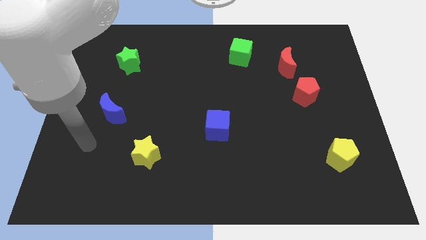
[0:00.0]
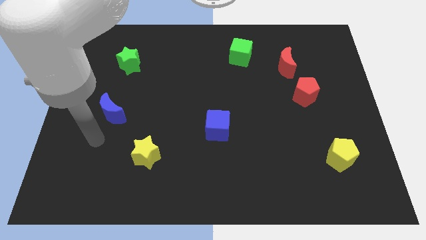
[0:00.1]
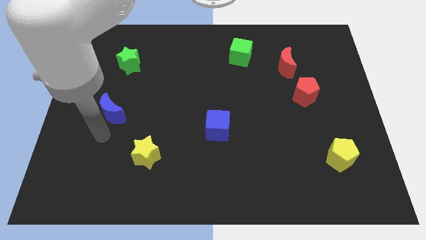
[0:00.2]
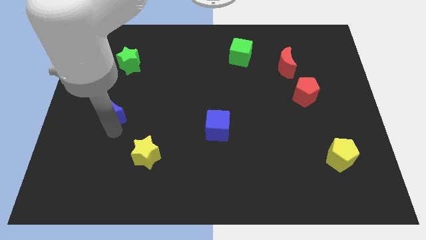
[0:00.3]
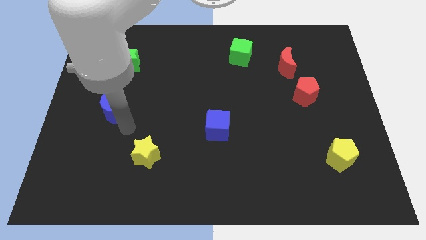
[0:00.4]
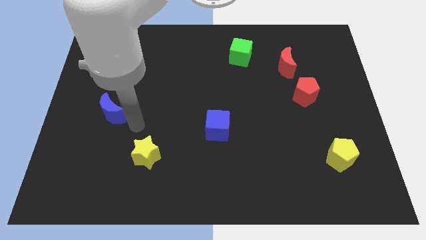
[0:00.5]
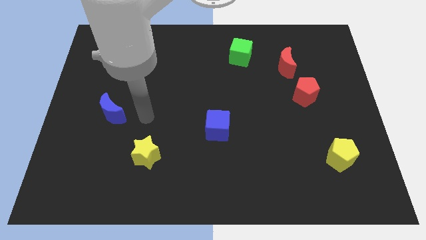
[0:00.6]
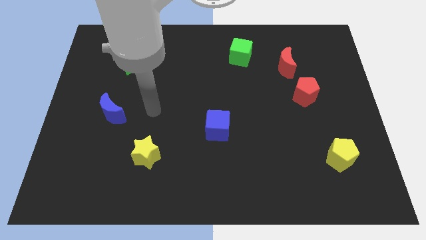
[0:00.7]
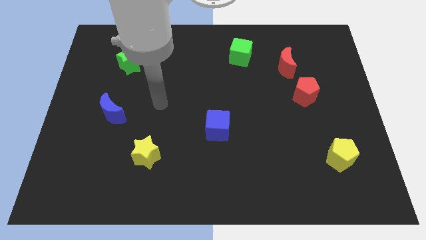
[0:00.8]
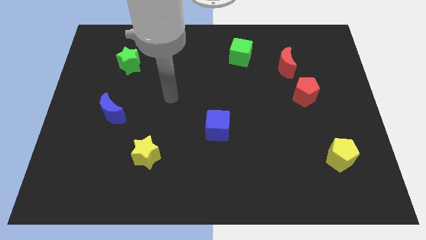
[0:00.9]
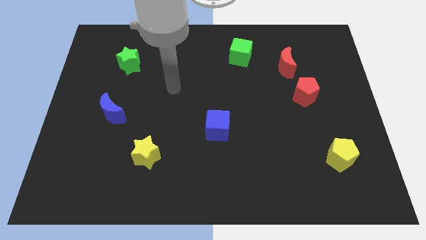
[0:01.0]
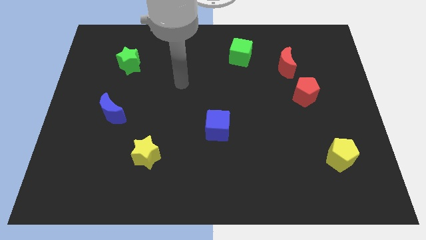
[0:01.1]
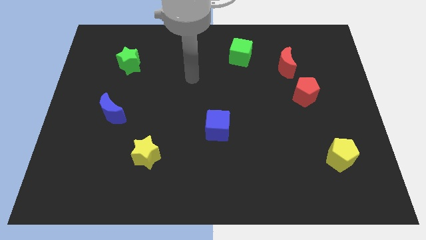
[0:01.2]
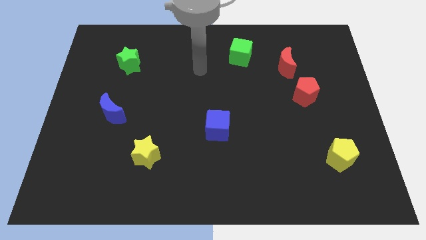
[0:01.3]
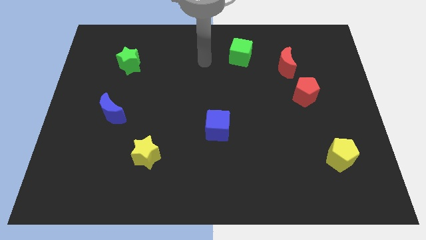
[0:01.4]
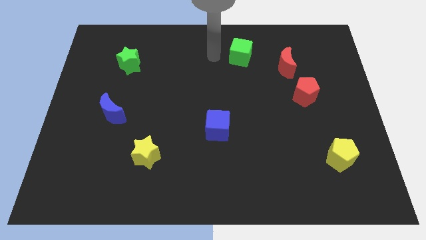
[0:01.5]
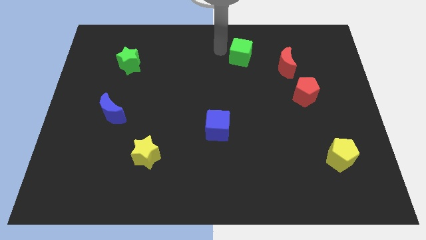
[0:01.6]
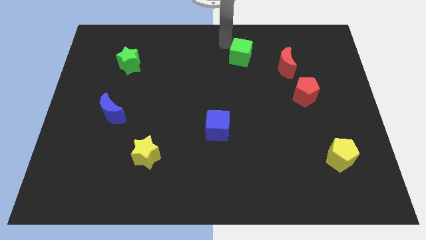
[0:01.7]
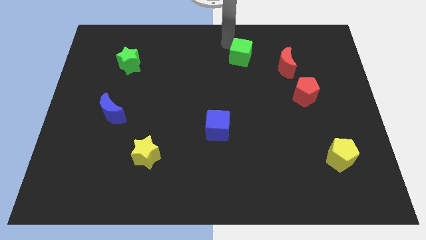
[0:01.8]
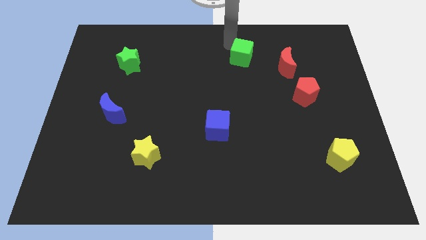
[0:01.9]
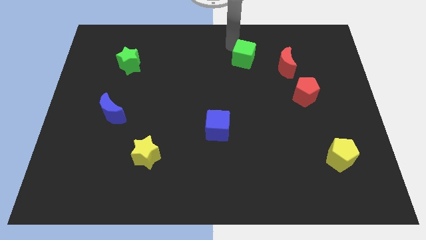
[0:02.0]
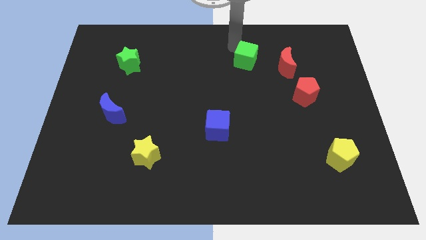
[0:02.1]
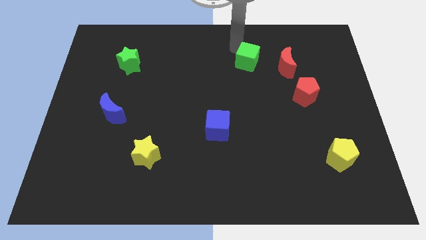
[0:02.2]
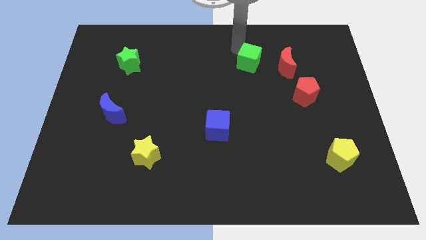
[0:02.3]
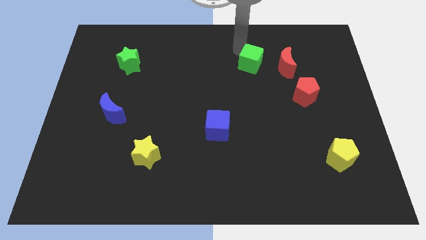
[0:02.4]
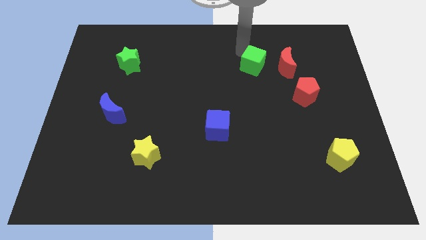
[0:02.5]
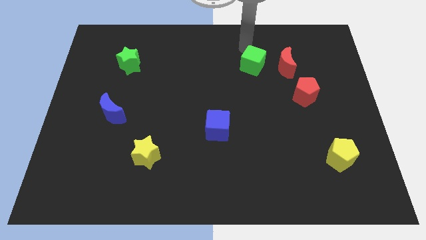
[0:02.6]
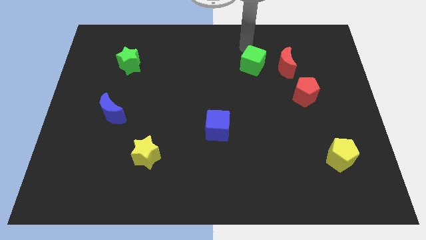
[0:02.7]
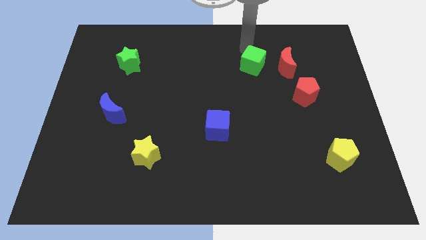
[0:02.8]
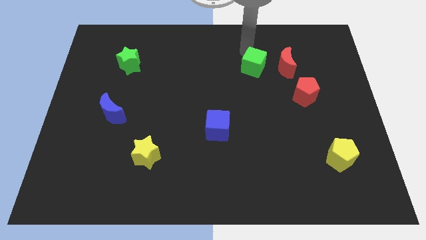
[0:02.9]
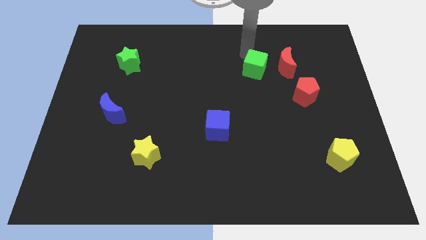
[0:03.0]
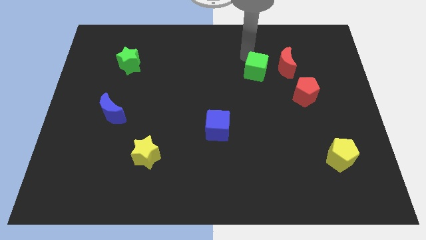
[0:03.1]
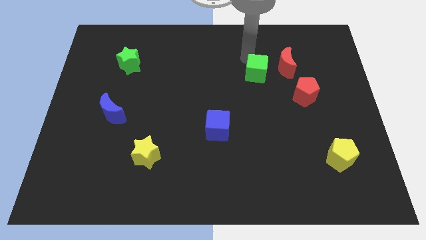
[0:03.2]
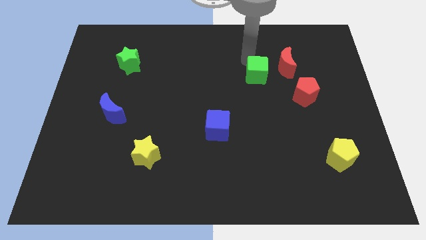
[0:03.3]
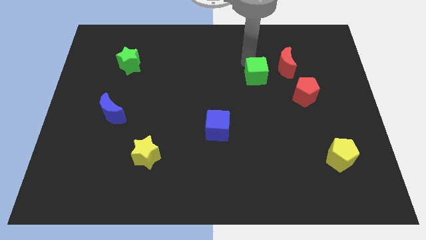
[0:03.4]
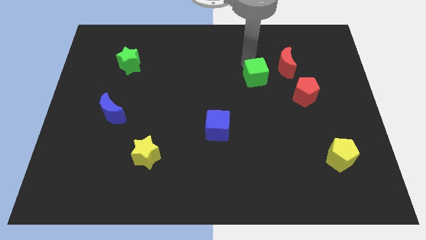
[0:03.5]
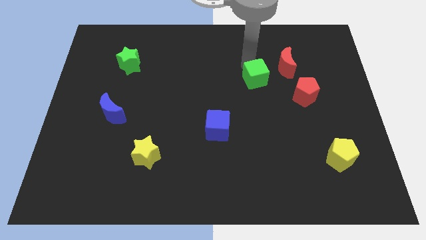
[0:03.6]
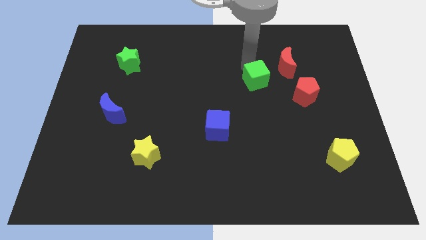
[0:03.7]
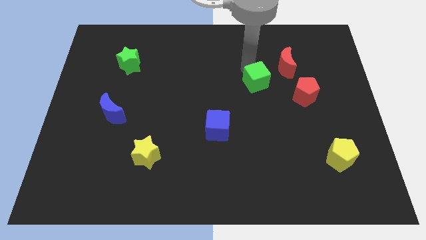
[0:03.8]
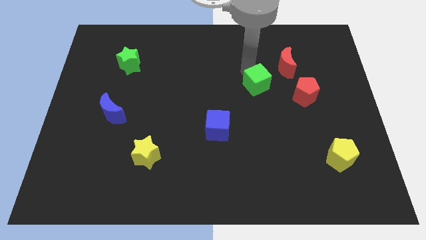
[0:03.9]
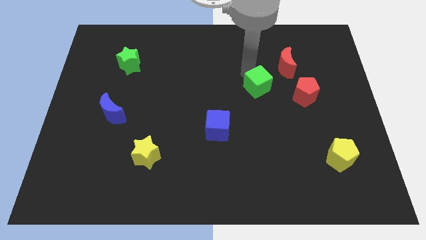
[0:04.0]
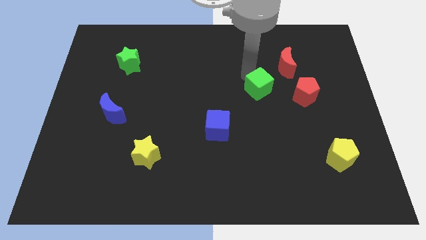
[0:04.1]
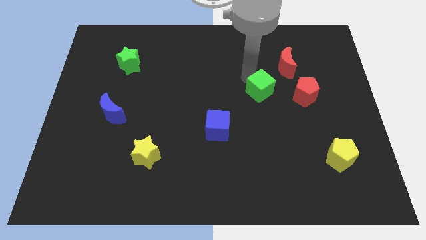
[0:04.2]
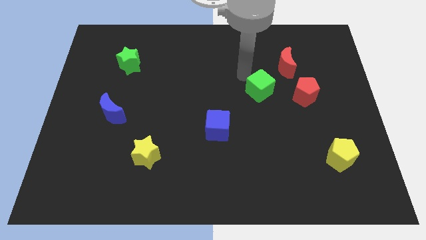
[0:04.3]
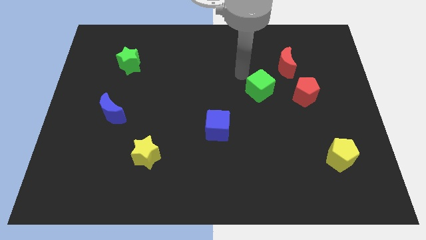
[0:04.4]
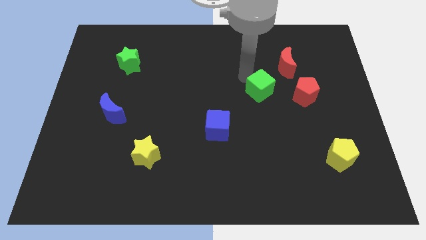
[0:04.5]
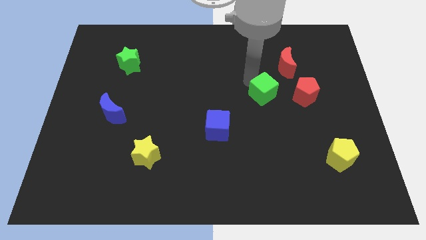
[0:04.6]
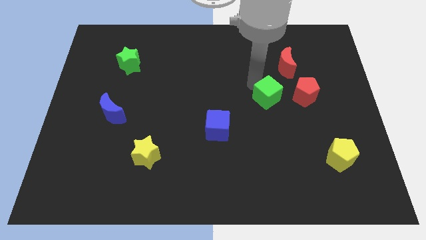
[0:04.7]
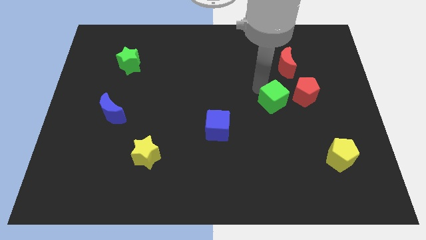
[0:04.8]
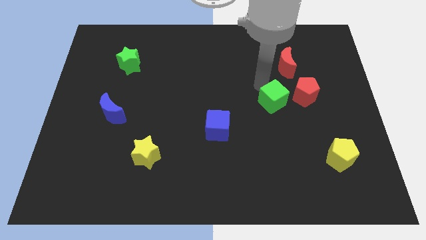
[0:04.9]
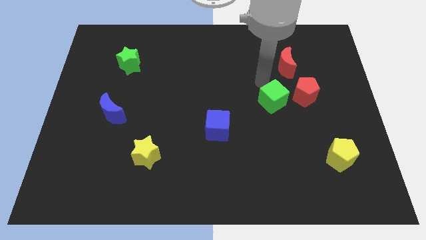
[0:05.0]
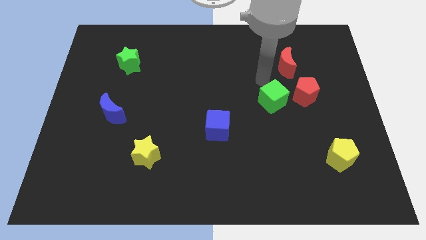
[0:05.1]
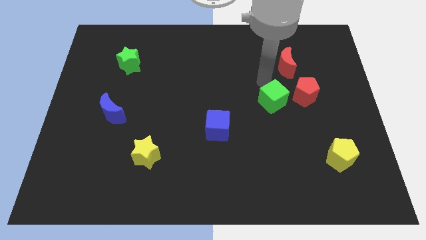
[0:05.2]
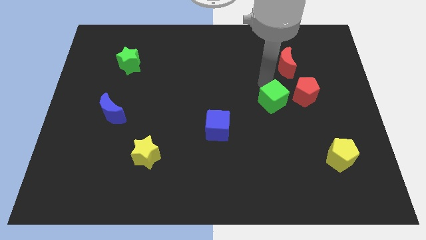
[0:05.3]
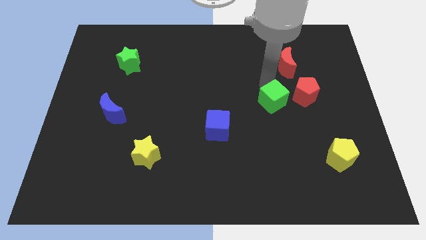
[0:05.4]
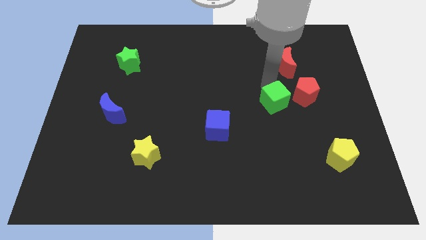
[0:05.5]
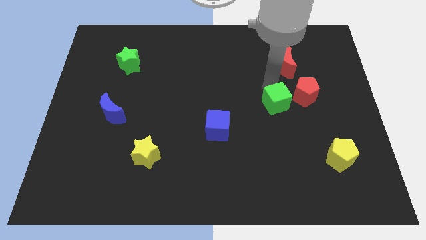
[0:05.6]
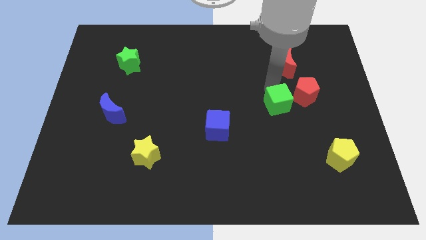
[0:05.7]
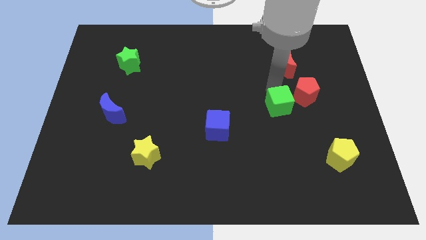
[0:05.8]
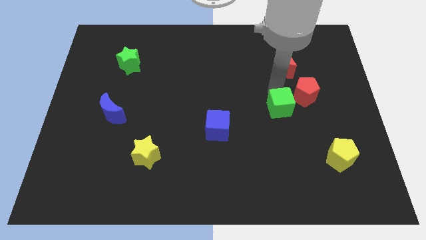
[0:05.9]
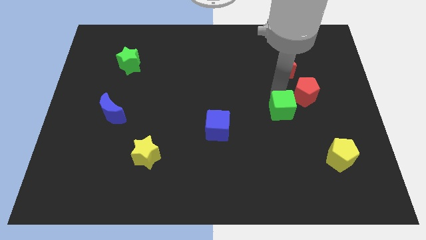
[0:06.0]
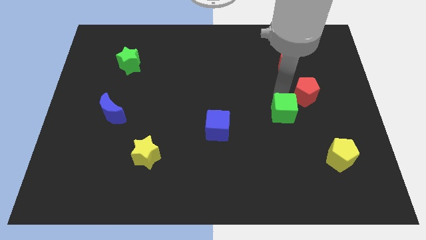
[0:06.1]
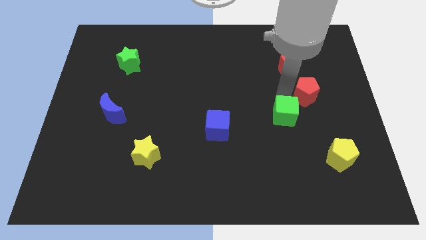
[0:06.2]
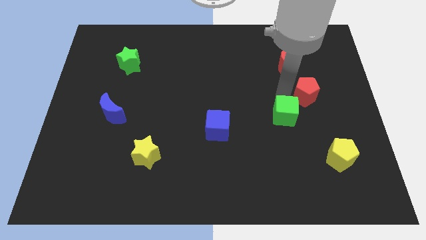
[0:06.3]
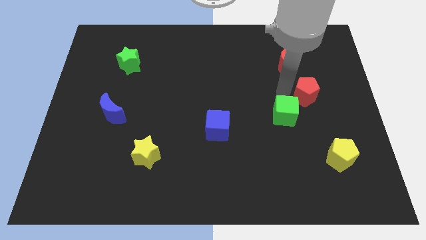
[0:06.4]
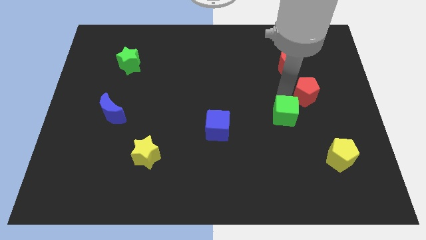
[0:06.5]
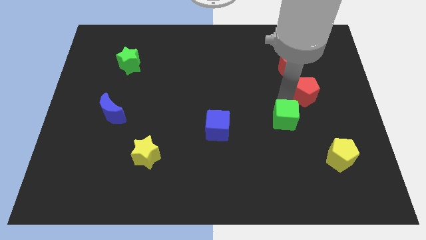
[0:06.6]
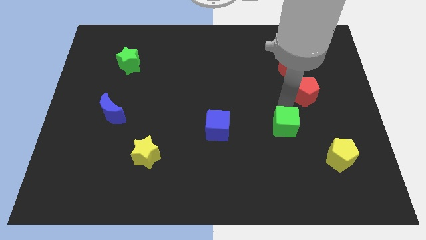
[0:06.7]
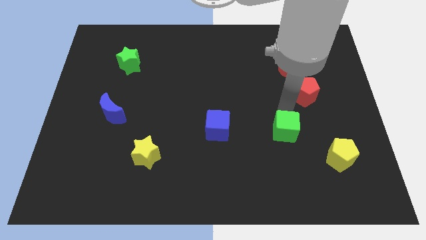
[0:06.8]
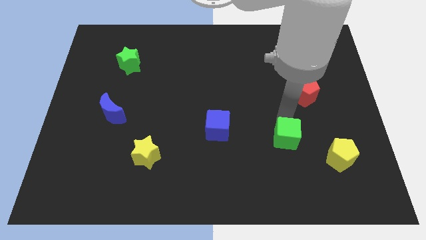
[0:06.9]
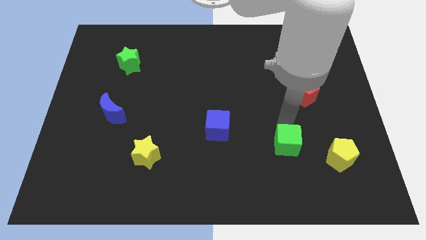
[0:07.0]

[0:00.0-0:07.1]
push the green cube just left of the yellow pentagon

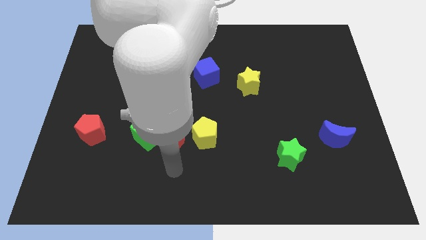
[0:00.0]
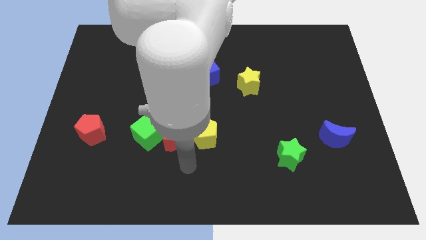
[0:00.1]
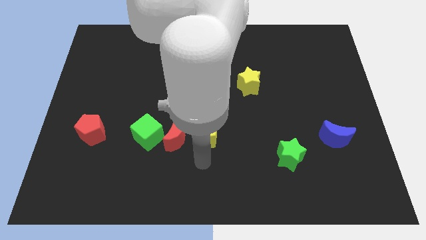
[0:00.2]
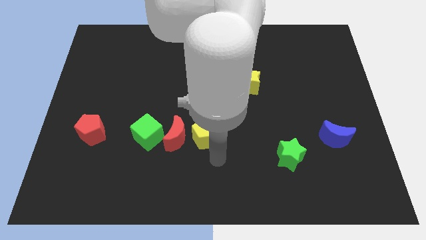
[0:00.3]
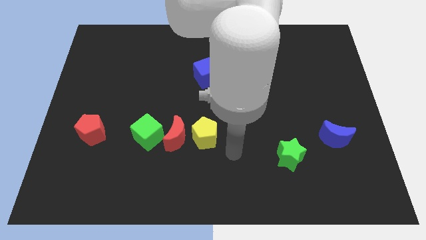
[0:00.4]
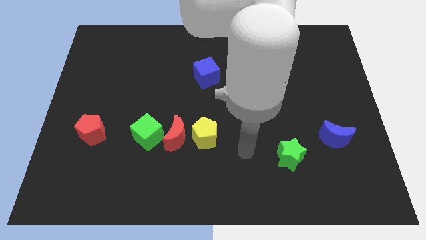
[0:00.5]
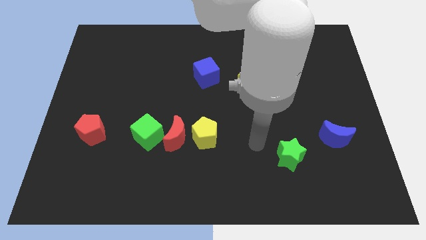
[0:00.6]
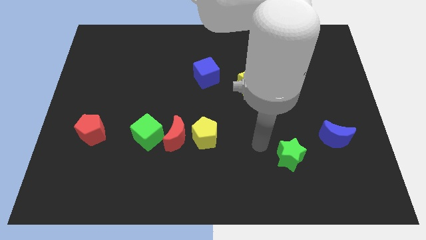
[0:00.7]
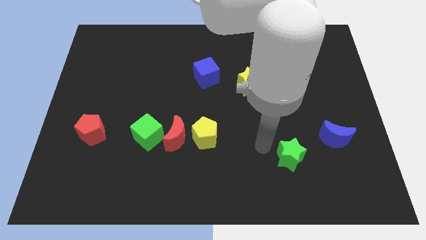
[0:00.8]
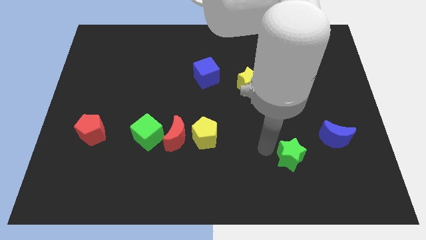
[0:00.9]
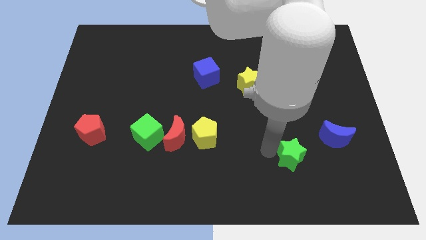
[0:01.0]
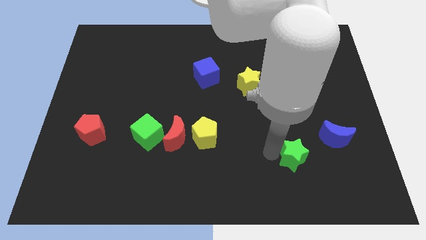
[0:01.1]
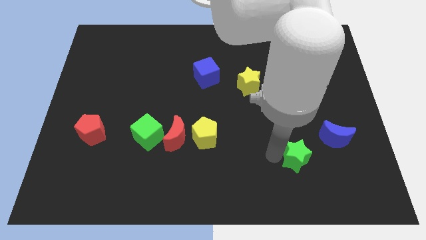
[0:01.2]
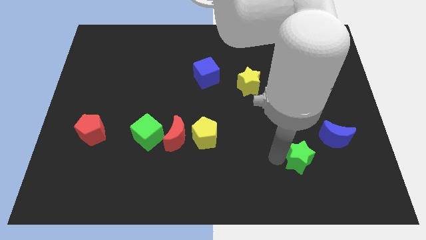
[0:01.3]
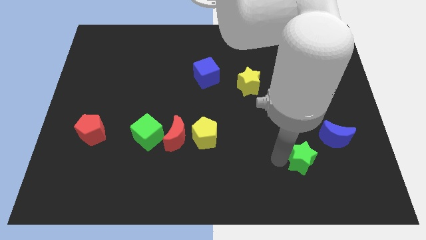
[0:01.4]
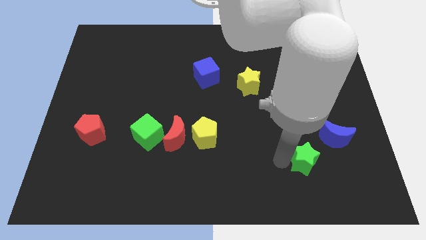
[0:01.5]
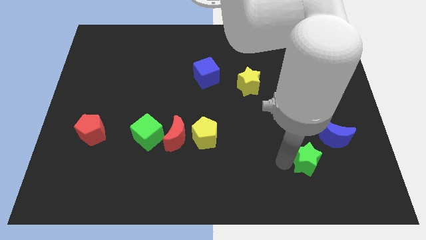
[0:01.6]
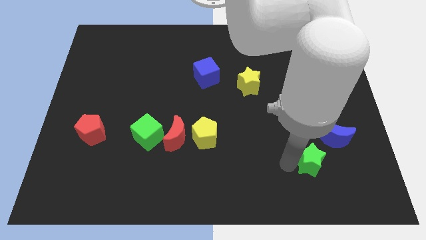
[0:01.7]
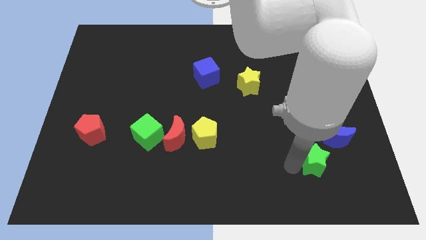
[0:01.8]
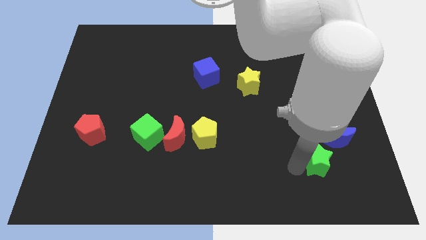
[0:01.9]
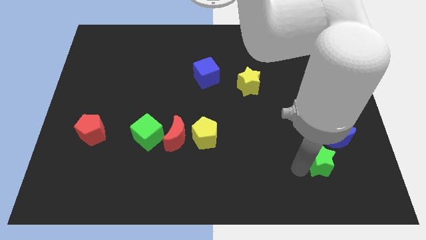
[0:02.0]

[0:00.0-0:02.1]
push the green star to the bottom side of the blue moon
